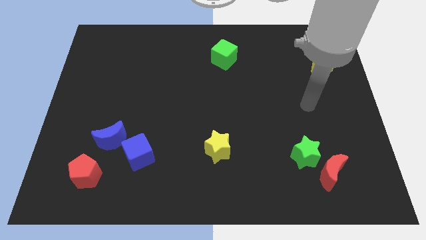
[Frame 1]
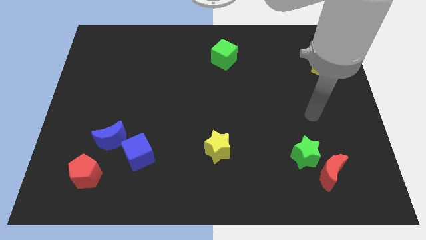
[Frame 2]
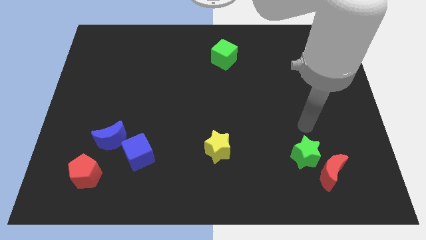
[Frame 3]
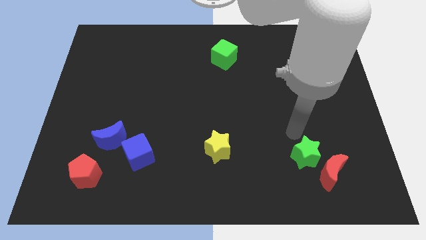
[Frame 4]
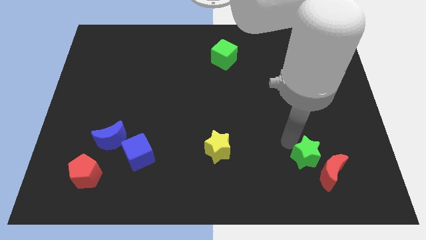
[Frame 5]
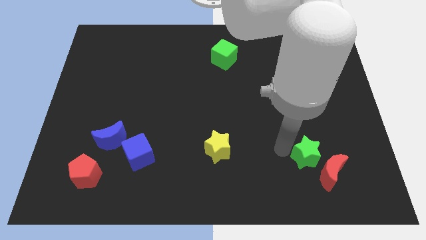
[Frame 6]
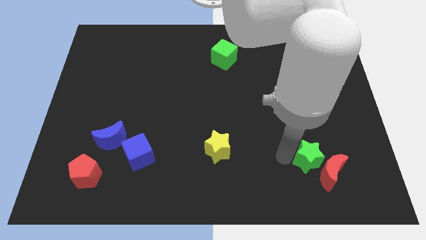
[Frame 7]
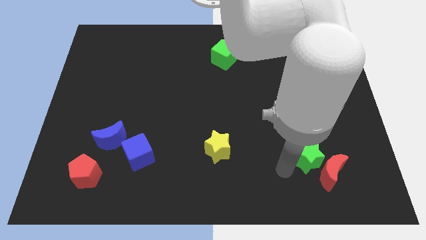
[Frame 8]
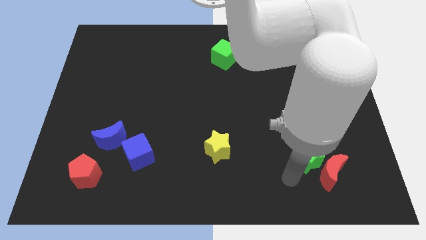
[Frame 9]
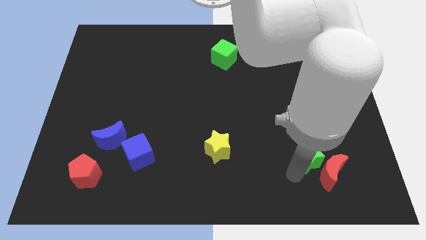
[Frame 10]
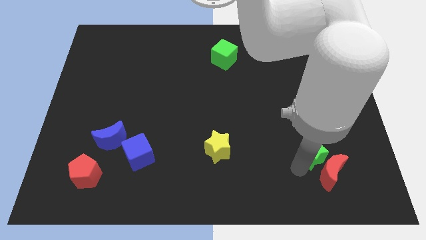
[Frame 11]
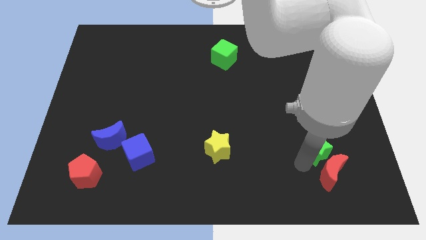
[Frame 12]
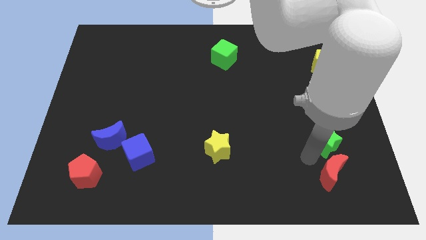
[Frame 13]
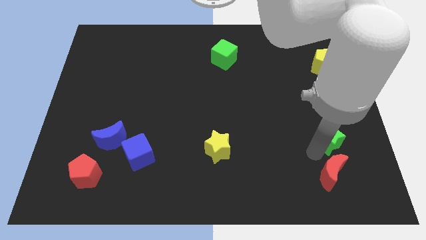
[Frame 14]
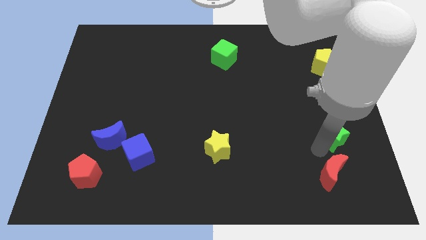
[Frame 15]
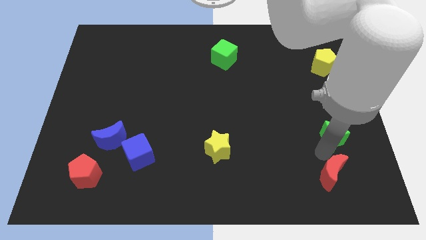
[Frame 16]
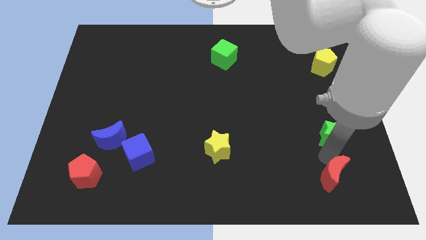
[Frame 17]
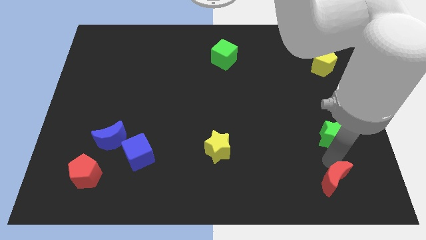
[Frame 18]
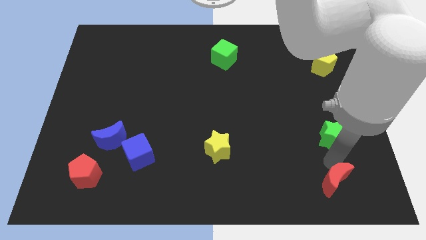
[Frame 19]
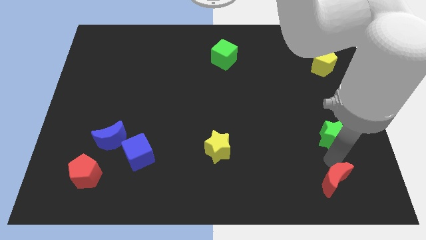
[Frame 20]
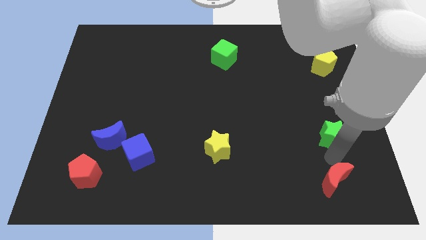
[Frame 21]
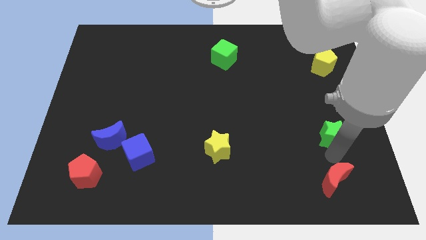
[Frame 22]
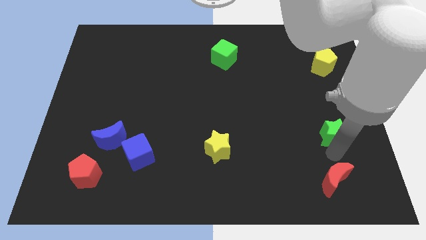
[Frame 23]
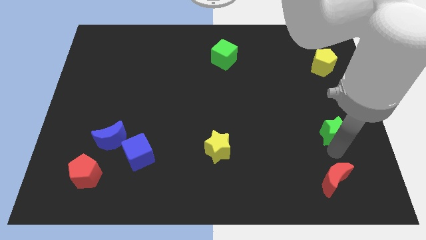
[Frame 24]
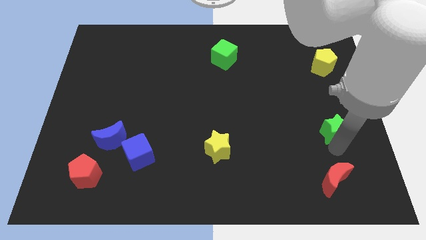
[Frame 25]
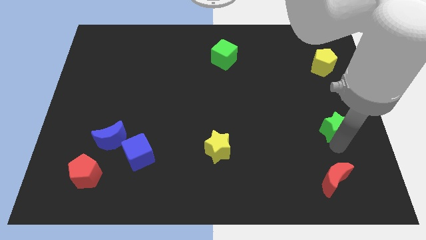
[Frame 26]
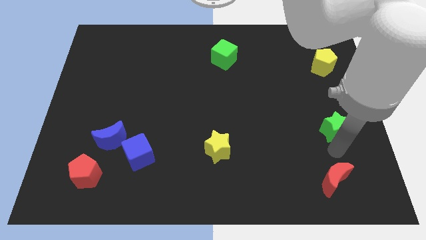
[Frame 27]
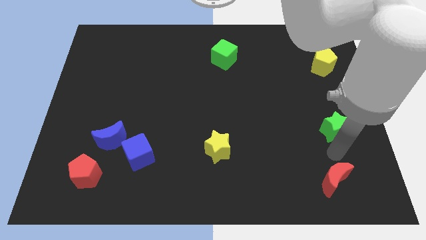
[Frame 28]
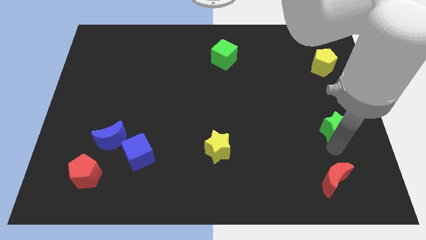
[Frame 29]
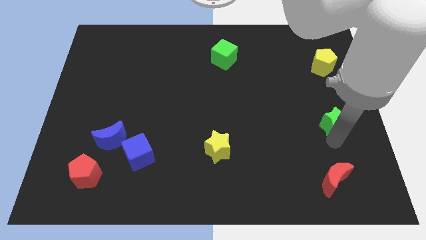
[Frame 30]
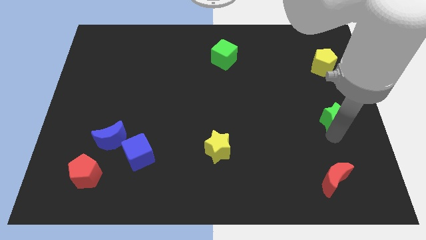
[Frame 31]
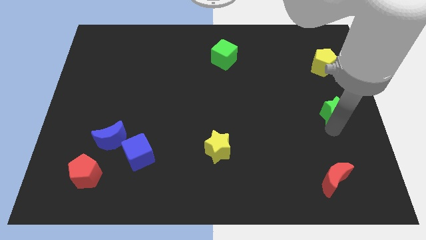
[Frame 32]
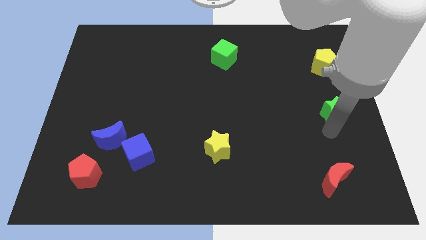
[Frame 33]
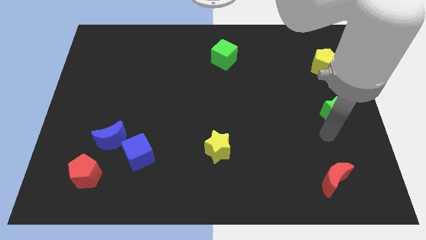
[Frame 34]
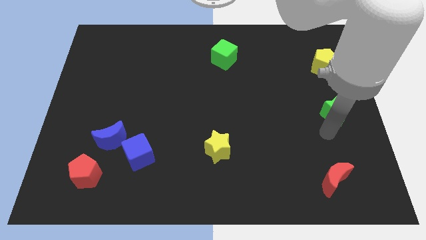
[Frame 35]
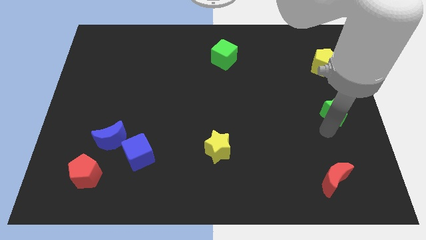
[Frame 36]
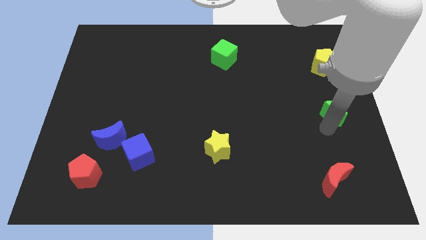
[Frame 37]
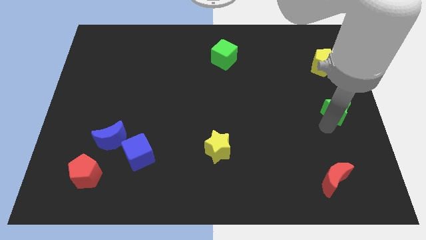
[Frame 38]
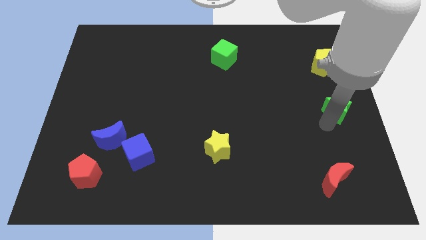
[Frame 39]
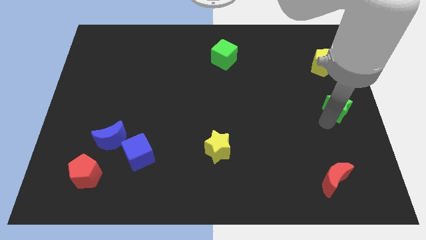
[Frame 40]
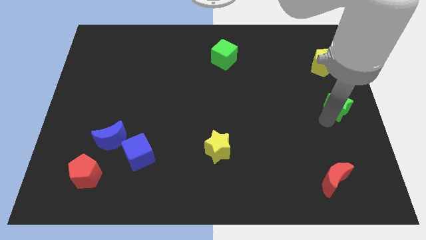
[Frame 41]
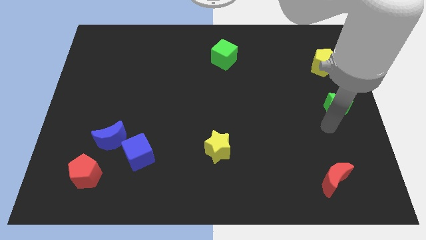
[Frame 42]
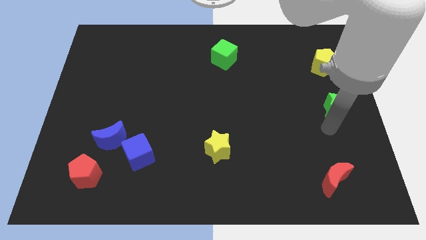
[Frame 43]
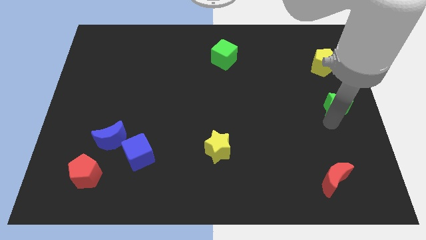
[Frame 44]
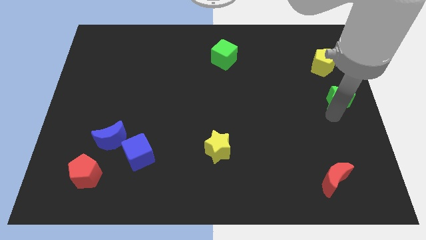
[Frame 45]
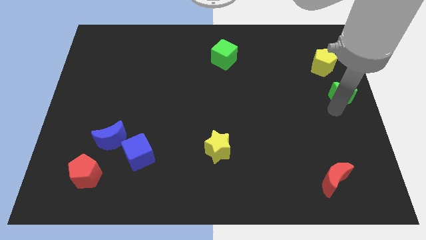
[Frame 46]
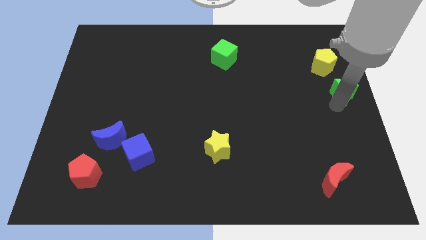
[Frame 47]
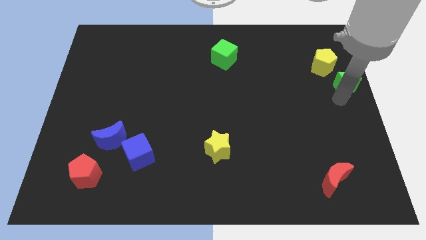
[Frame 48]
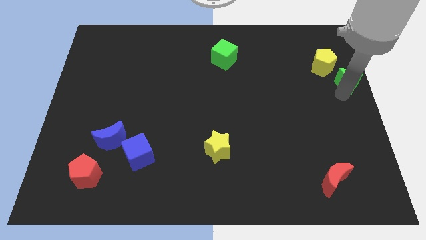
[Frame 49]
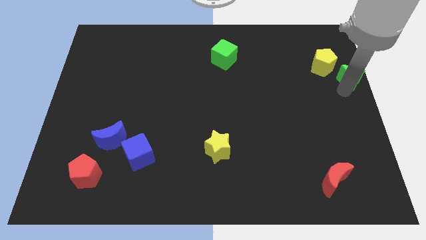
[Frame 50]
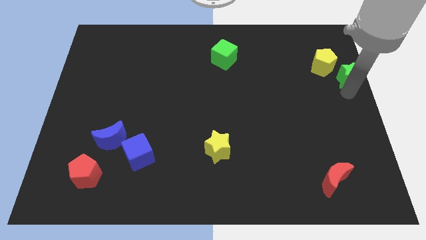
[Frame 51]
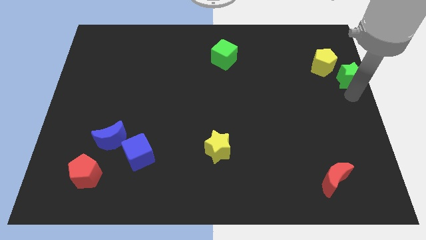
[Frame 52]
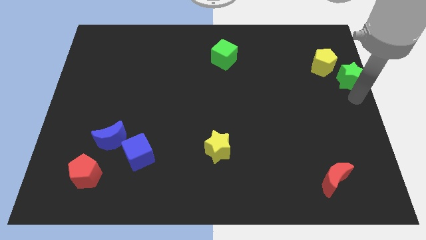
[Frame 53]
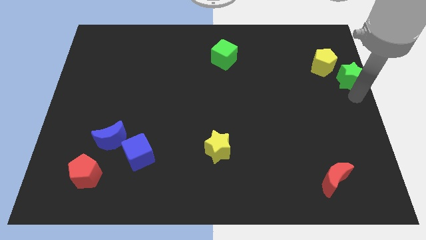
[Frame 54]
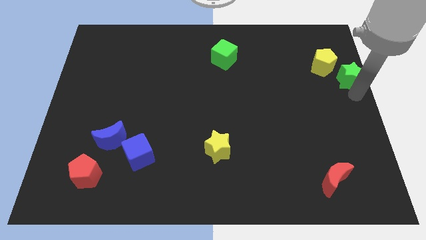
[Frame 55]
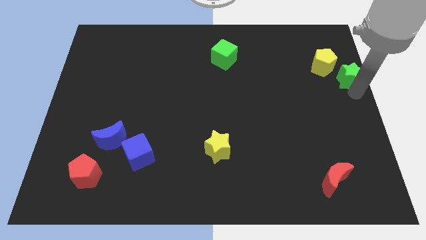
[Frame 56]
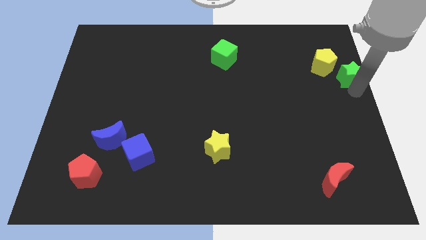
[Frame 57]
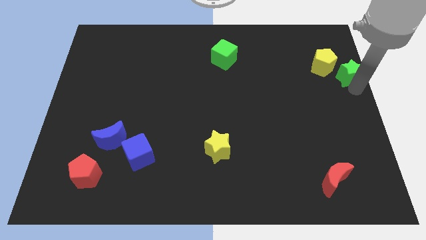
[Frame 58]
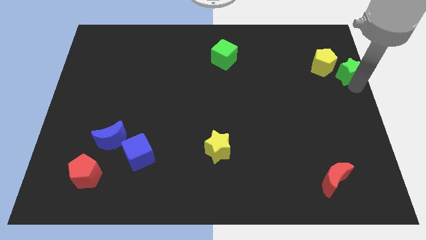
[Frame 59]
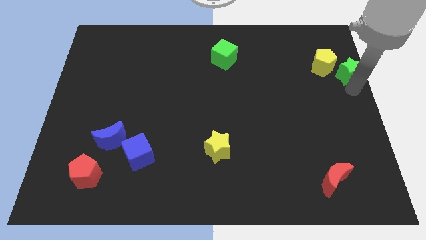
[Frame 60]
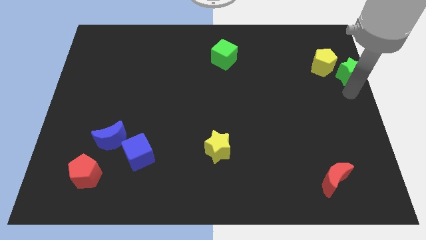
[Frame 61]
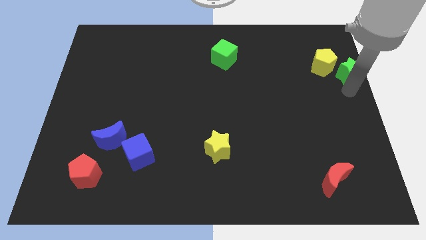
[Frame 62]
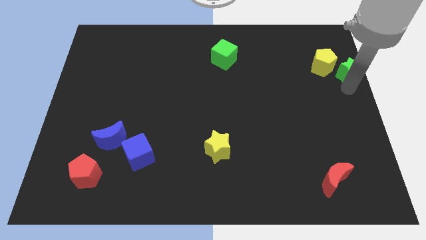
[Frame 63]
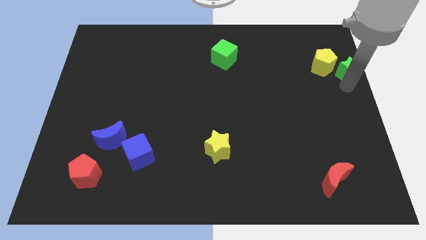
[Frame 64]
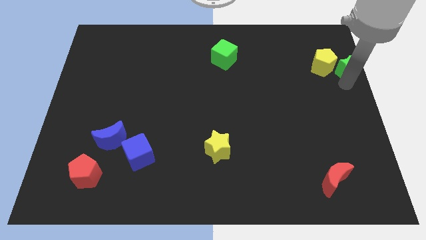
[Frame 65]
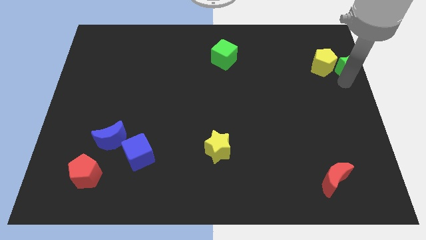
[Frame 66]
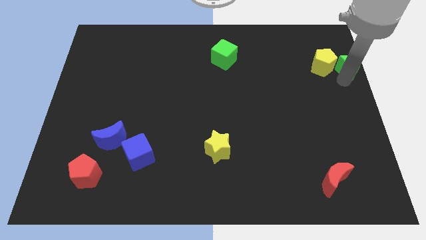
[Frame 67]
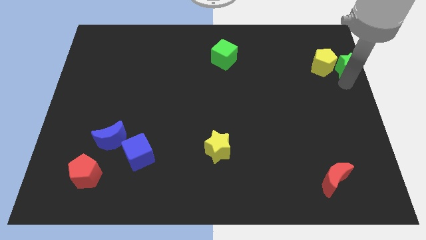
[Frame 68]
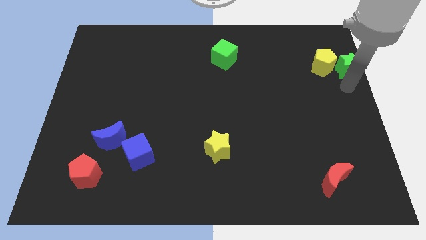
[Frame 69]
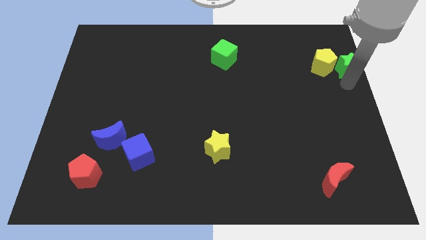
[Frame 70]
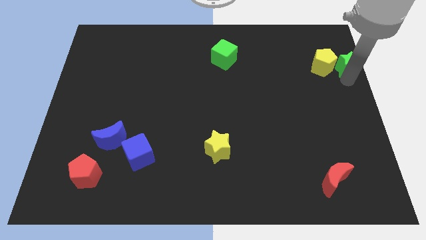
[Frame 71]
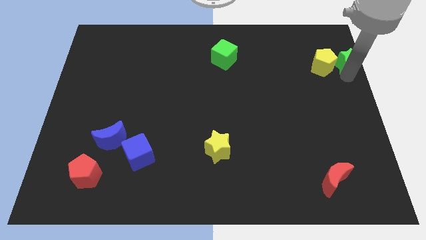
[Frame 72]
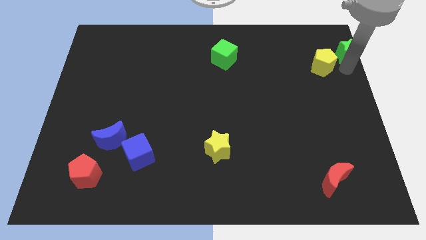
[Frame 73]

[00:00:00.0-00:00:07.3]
slide the green star to the top right corner
